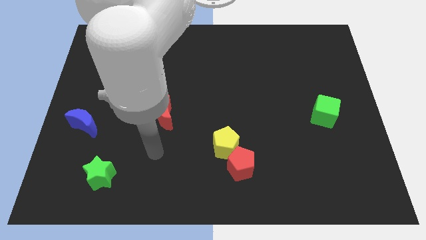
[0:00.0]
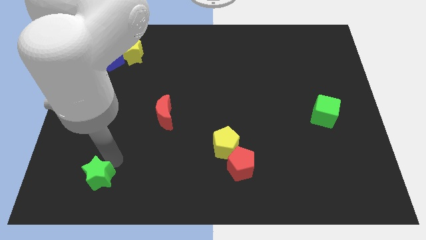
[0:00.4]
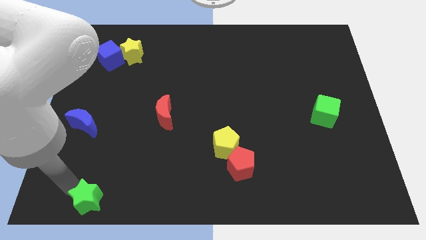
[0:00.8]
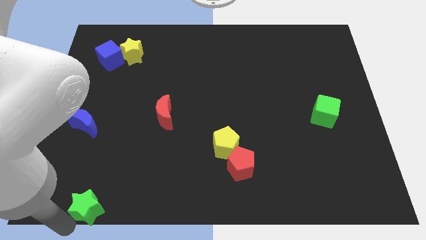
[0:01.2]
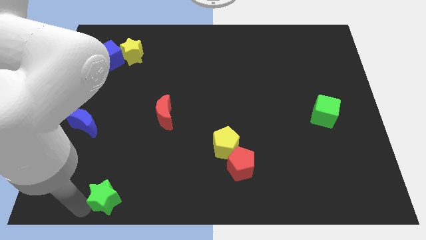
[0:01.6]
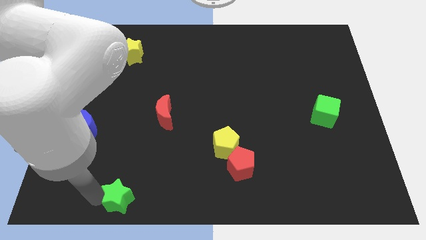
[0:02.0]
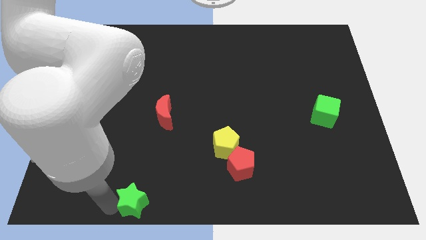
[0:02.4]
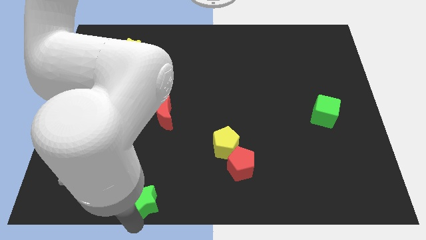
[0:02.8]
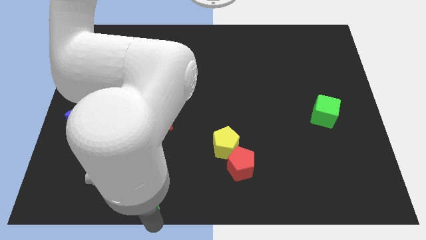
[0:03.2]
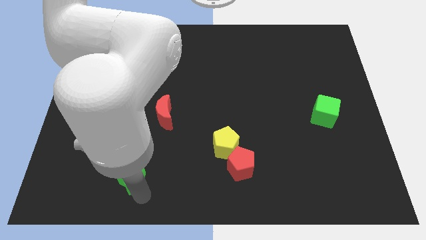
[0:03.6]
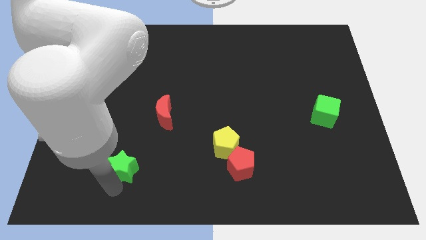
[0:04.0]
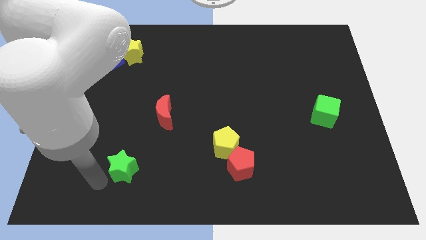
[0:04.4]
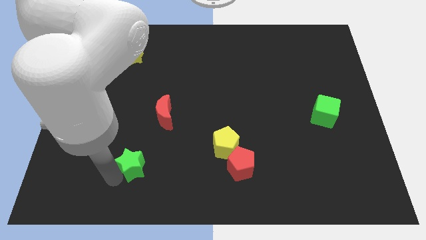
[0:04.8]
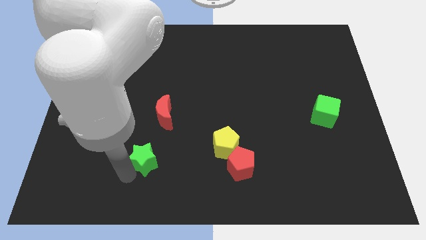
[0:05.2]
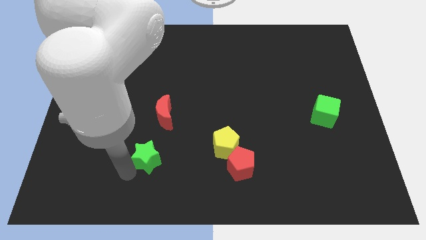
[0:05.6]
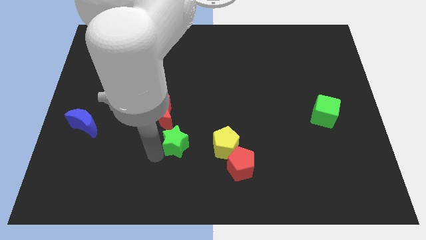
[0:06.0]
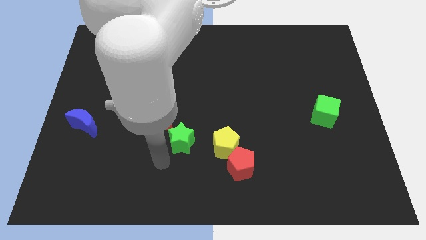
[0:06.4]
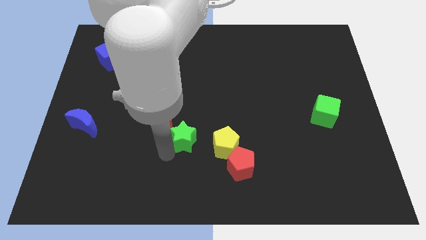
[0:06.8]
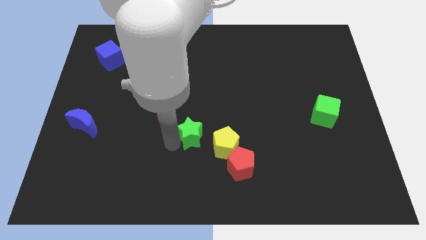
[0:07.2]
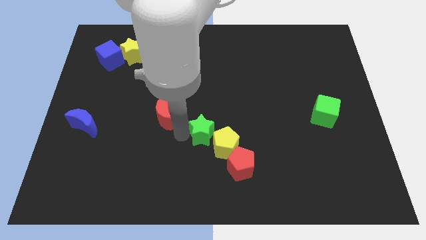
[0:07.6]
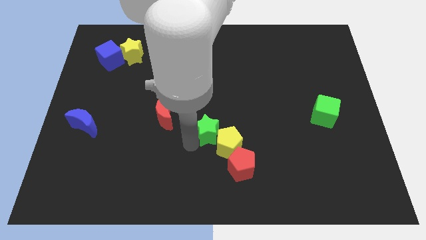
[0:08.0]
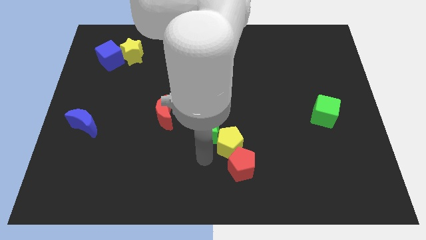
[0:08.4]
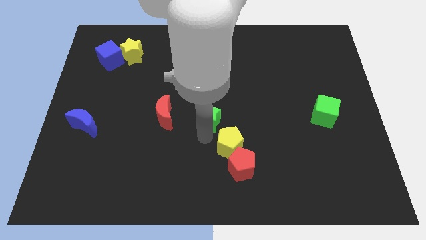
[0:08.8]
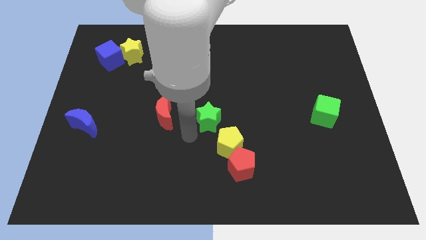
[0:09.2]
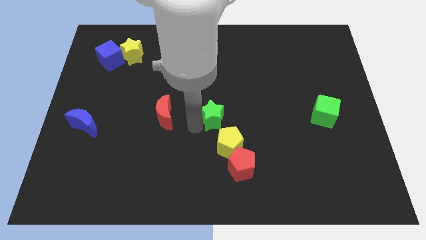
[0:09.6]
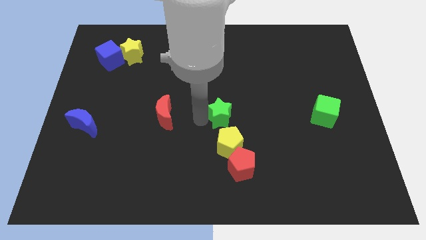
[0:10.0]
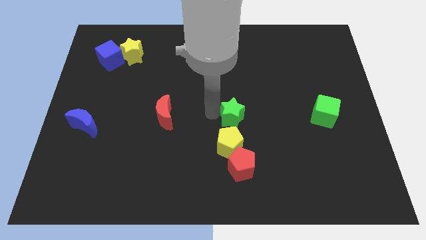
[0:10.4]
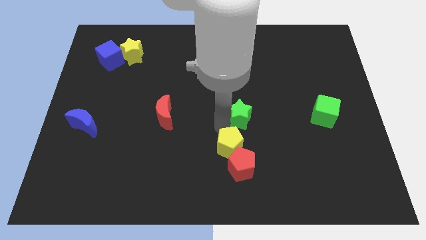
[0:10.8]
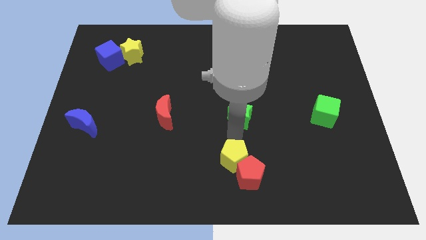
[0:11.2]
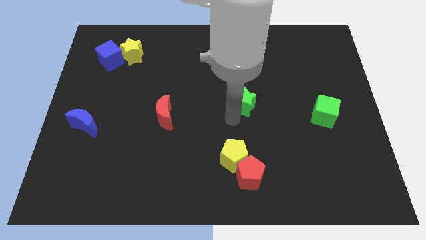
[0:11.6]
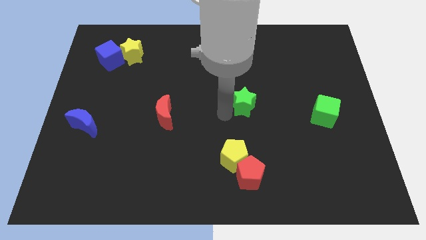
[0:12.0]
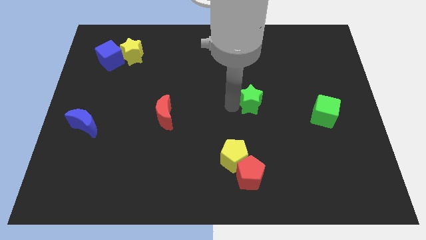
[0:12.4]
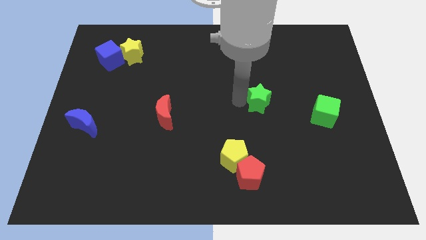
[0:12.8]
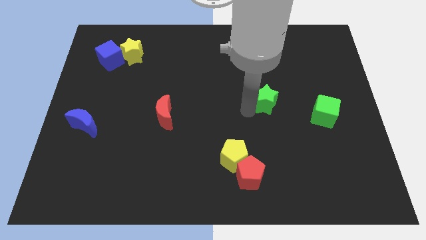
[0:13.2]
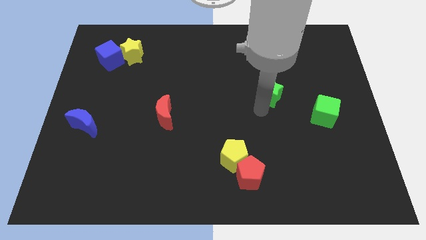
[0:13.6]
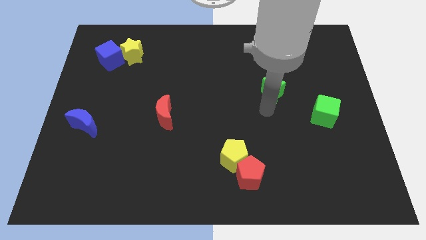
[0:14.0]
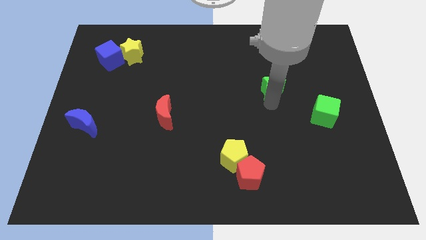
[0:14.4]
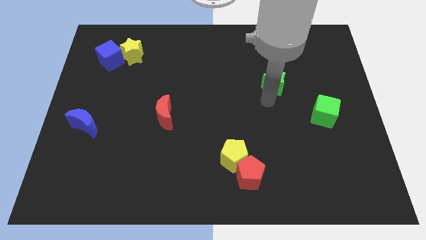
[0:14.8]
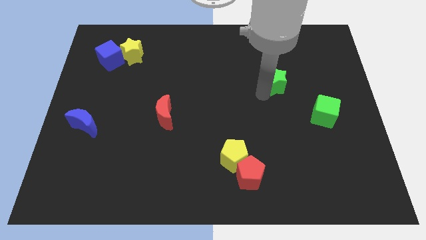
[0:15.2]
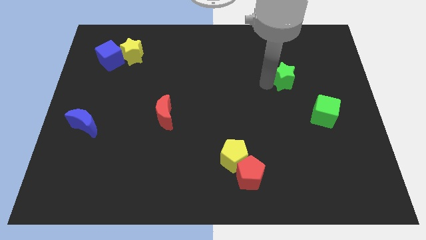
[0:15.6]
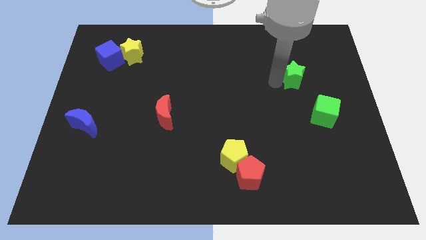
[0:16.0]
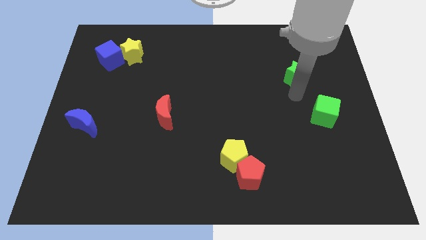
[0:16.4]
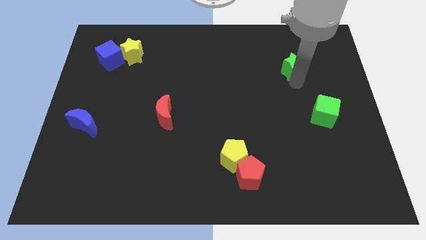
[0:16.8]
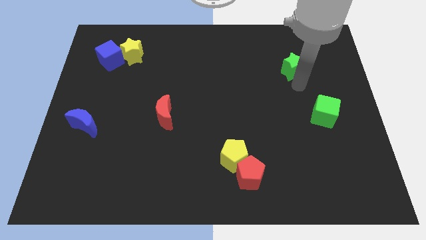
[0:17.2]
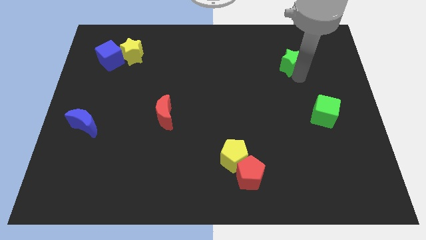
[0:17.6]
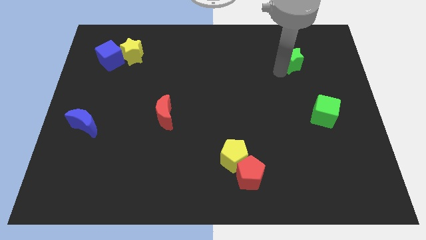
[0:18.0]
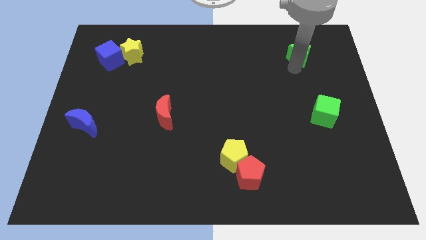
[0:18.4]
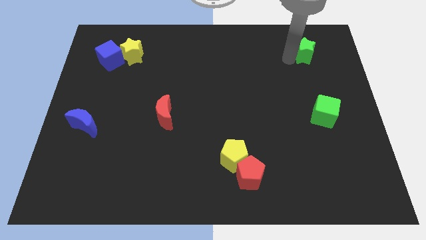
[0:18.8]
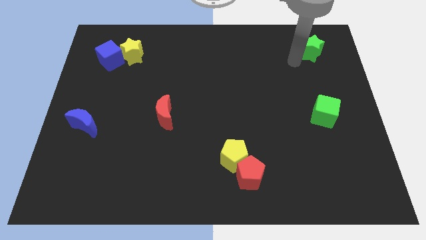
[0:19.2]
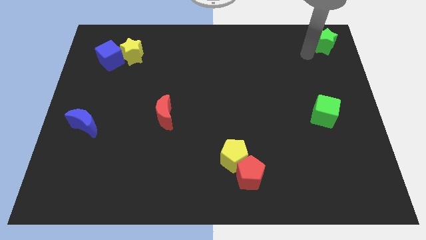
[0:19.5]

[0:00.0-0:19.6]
put the green star to the top right

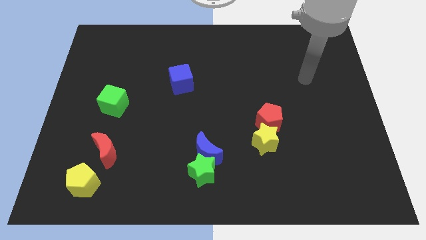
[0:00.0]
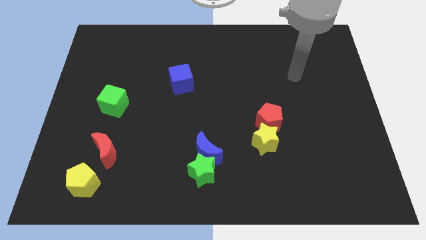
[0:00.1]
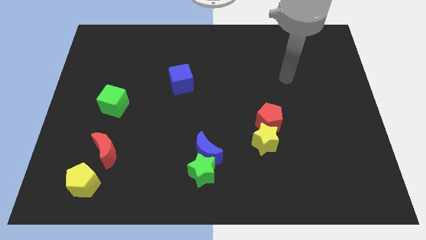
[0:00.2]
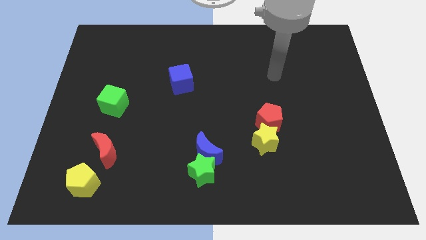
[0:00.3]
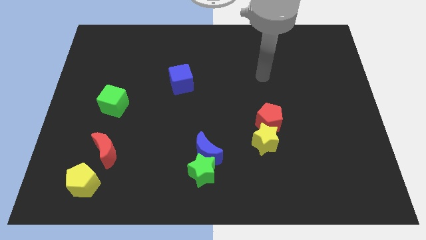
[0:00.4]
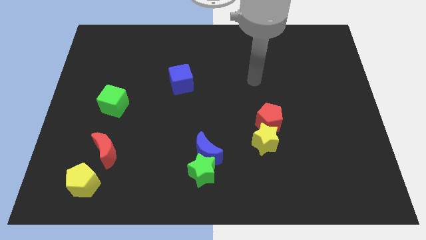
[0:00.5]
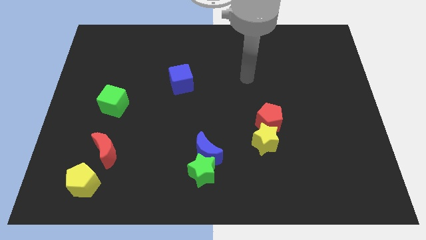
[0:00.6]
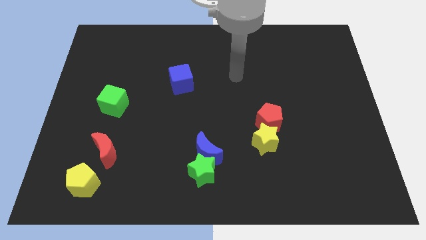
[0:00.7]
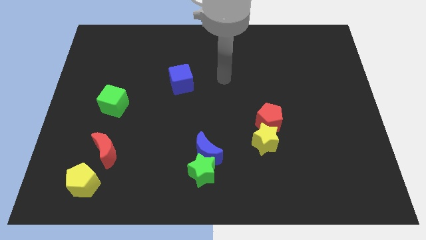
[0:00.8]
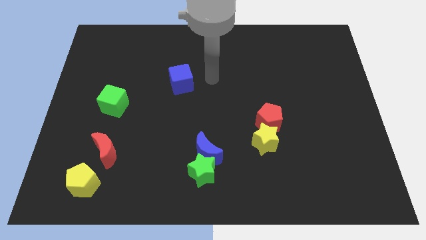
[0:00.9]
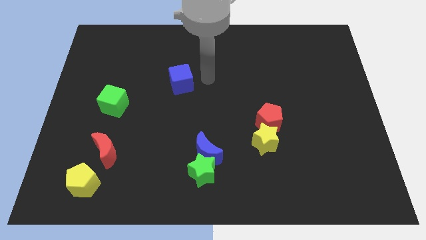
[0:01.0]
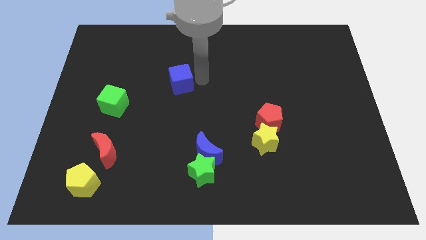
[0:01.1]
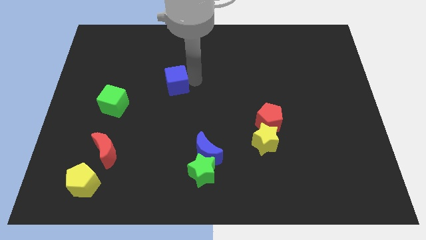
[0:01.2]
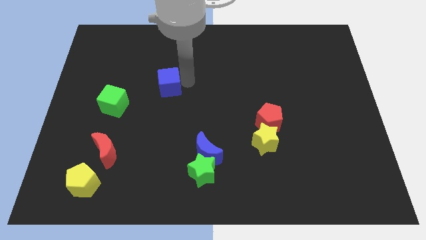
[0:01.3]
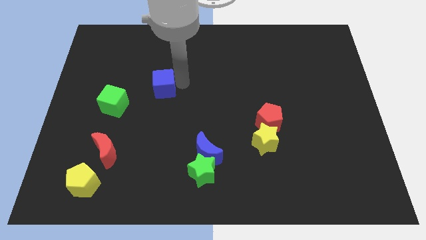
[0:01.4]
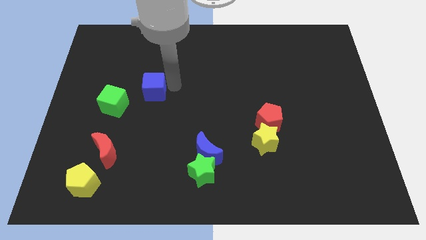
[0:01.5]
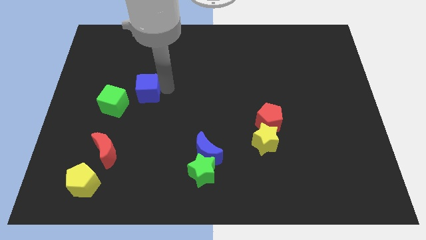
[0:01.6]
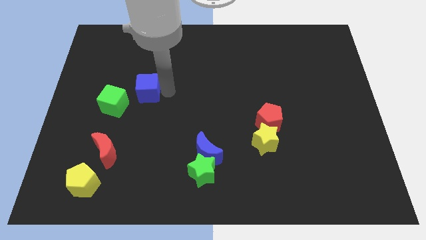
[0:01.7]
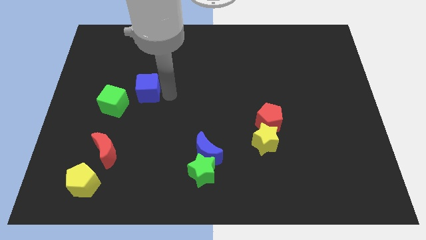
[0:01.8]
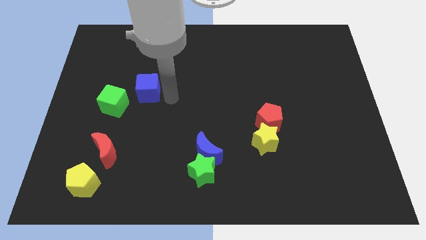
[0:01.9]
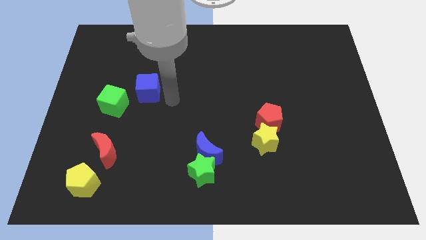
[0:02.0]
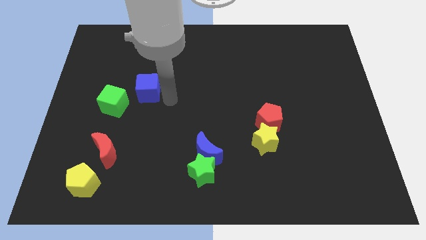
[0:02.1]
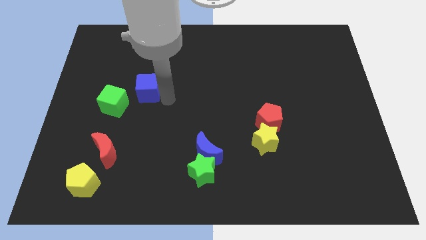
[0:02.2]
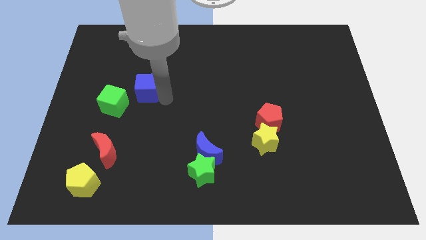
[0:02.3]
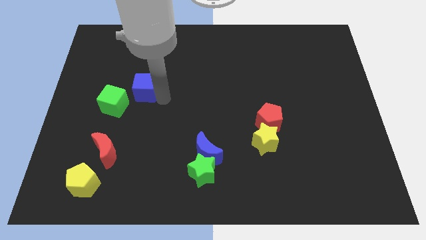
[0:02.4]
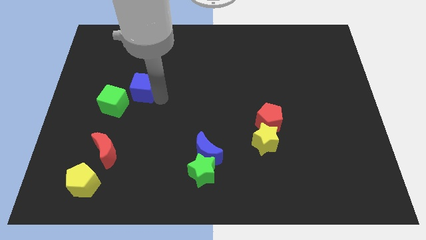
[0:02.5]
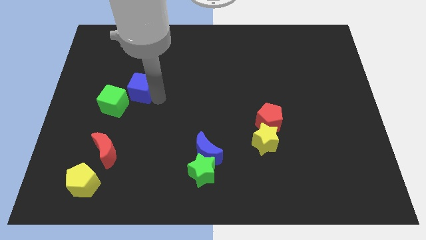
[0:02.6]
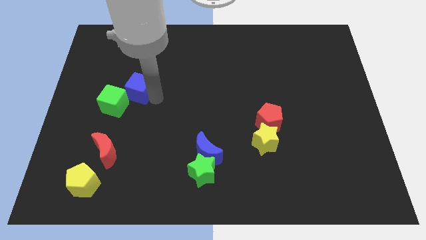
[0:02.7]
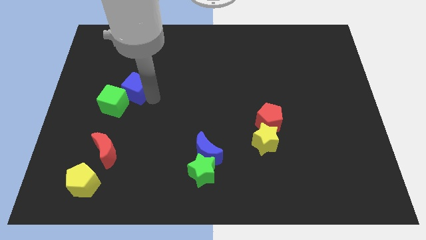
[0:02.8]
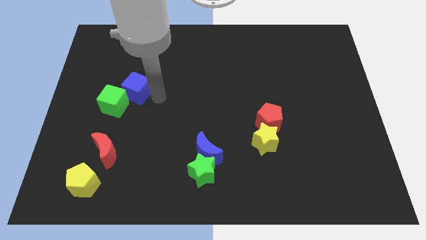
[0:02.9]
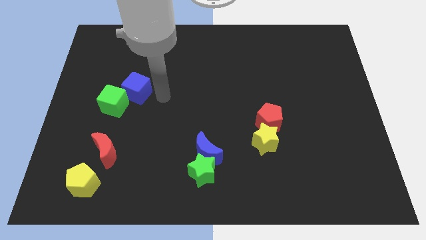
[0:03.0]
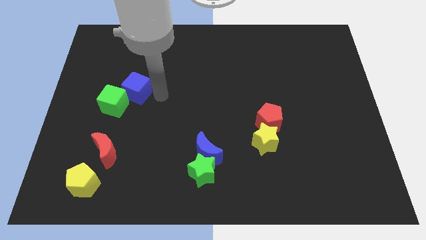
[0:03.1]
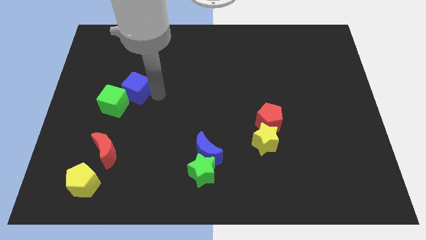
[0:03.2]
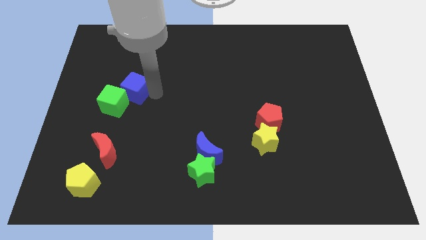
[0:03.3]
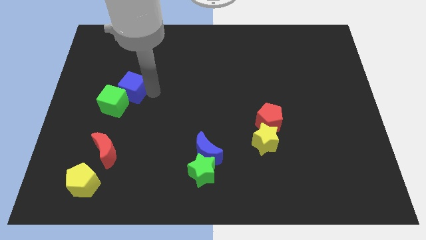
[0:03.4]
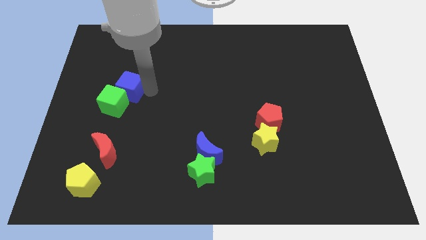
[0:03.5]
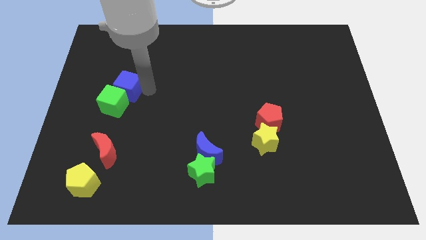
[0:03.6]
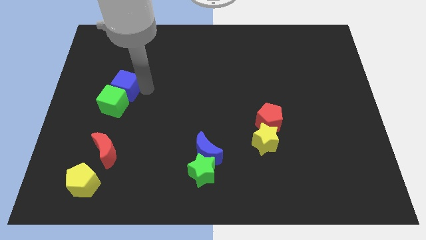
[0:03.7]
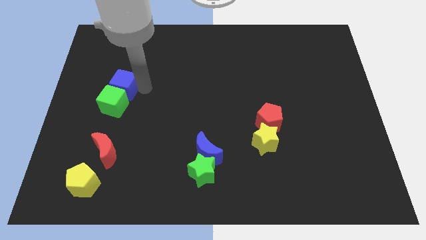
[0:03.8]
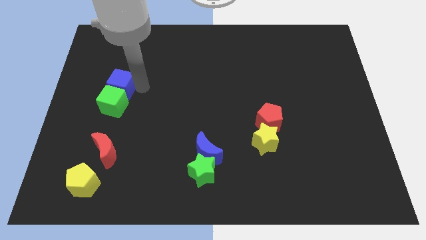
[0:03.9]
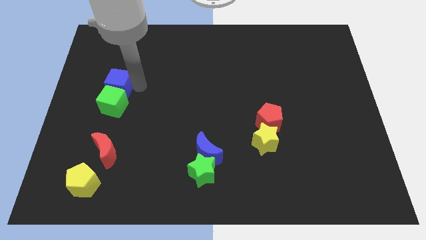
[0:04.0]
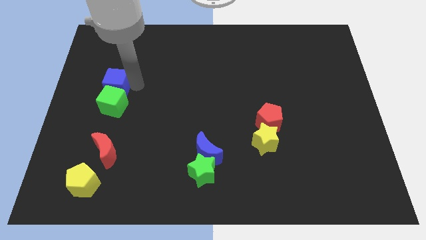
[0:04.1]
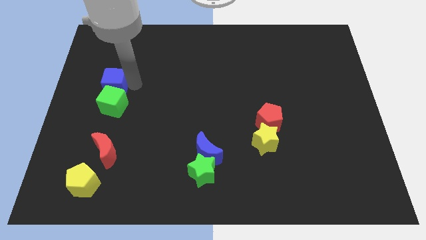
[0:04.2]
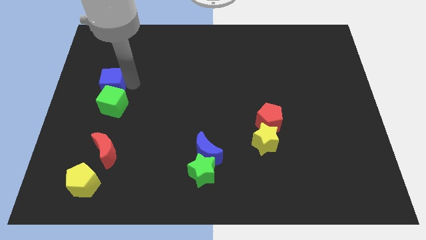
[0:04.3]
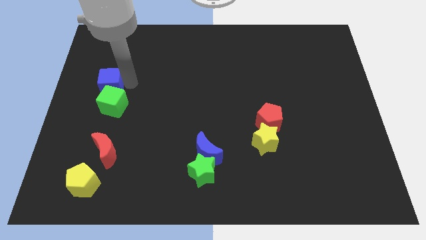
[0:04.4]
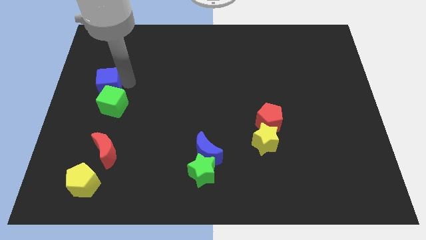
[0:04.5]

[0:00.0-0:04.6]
move the blue cube to the left side
